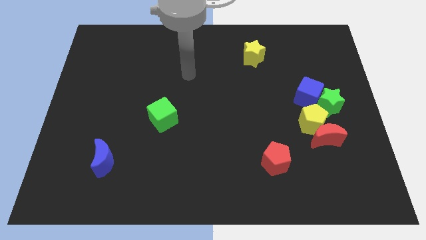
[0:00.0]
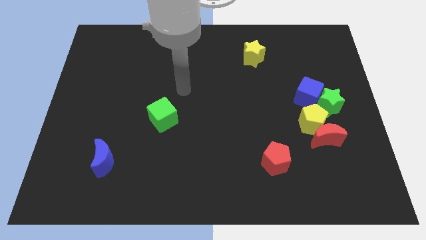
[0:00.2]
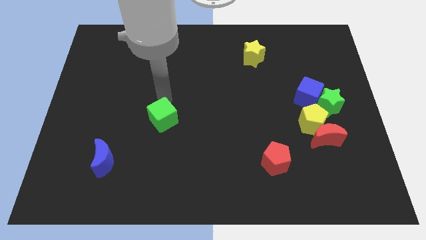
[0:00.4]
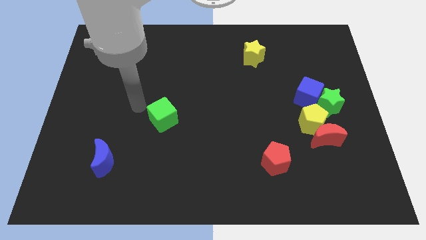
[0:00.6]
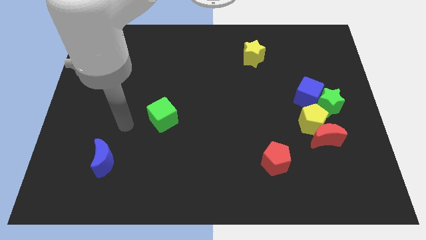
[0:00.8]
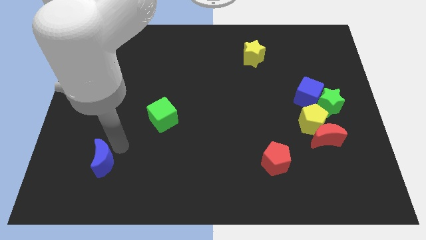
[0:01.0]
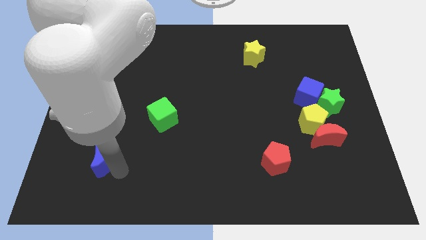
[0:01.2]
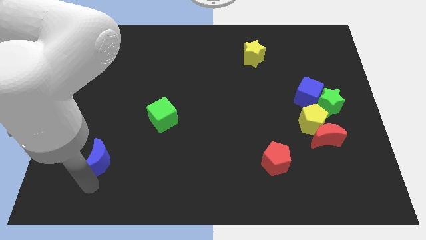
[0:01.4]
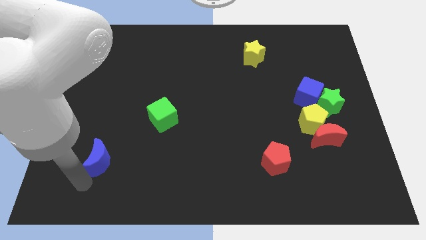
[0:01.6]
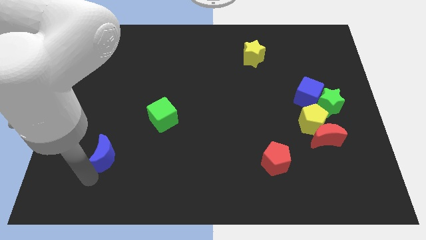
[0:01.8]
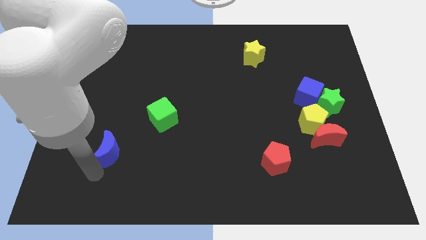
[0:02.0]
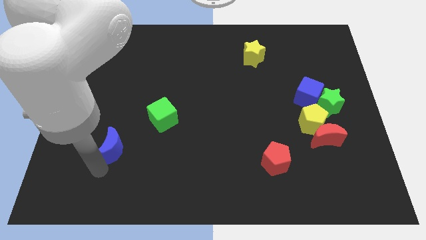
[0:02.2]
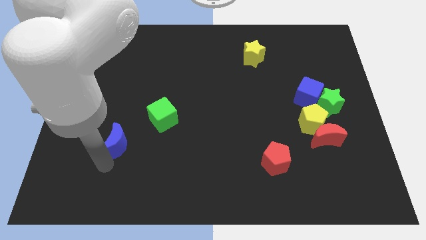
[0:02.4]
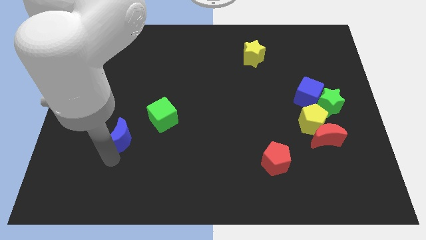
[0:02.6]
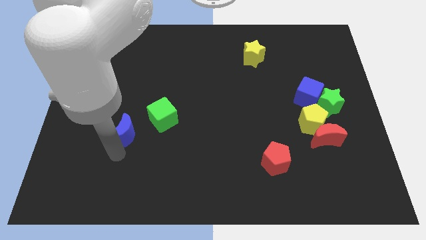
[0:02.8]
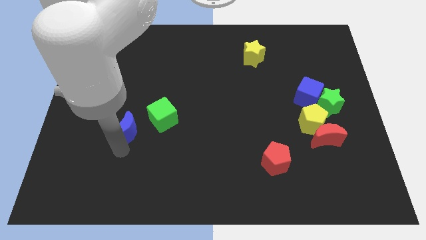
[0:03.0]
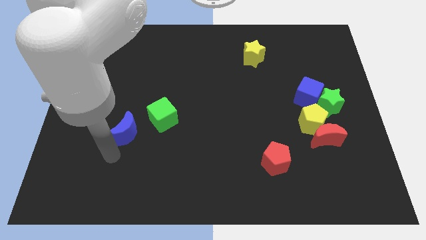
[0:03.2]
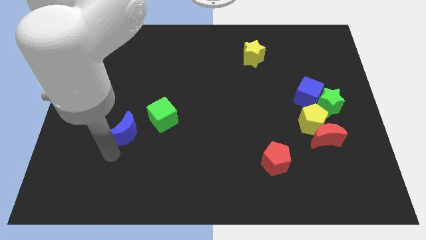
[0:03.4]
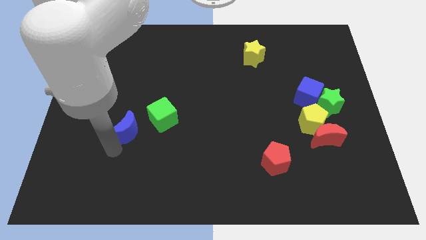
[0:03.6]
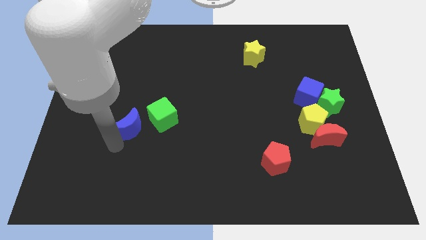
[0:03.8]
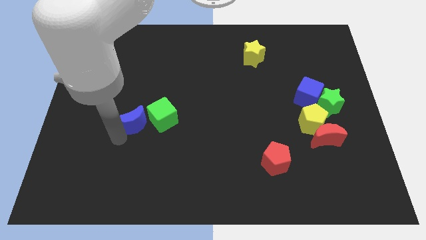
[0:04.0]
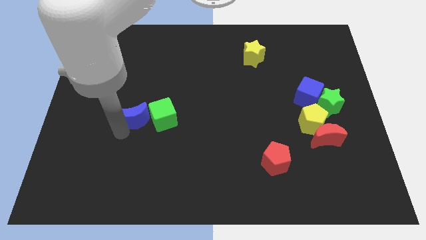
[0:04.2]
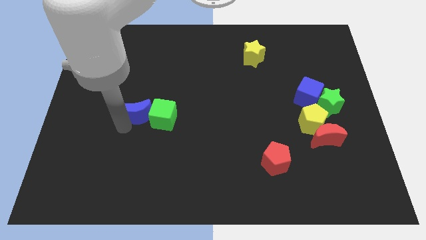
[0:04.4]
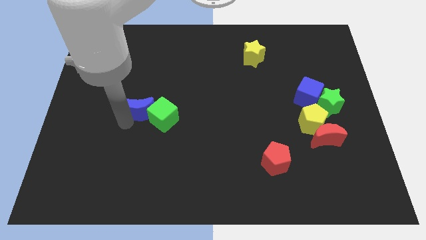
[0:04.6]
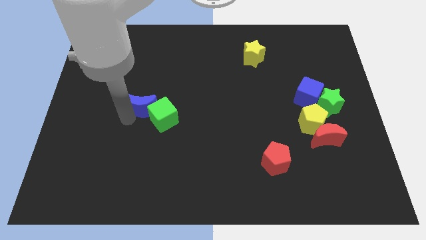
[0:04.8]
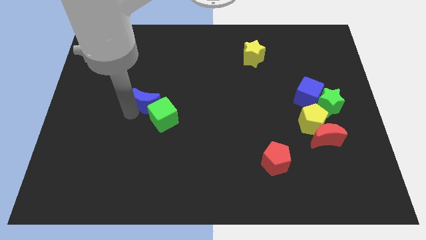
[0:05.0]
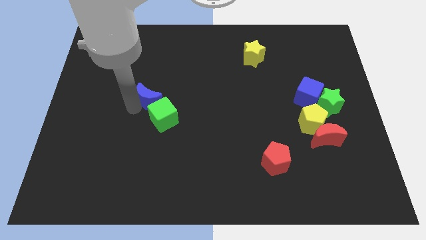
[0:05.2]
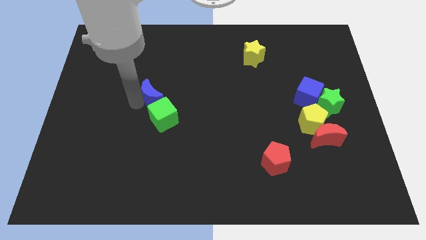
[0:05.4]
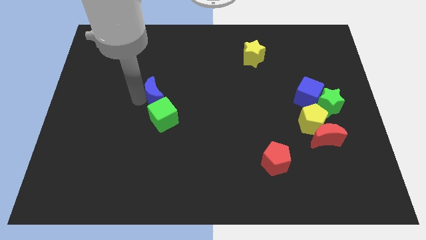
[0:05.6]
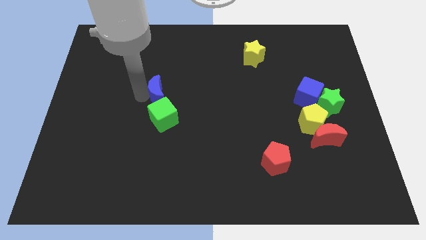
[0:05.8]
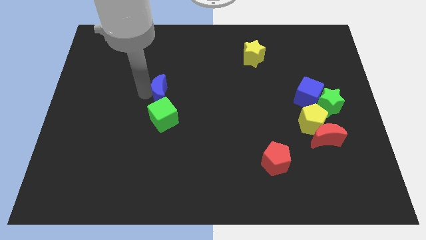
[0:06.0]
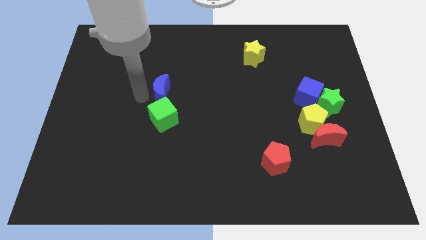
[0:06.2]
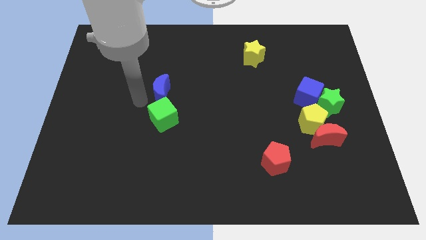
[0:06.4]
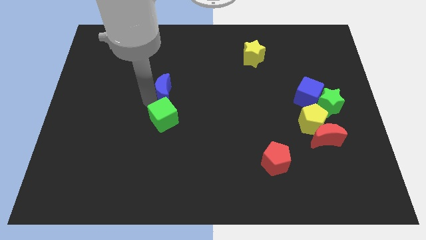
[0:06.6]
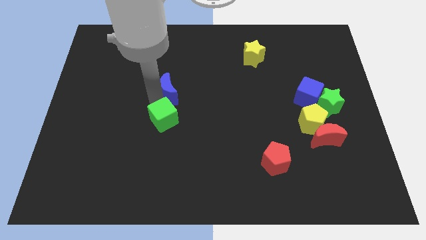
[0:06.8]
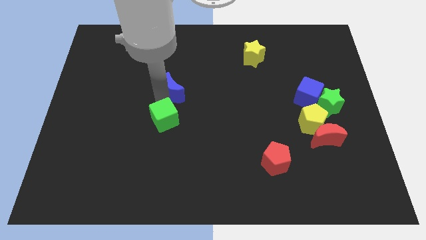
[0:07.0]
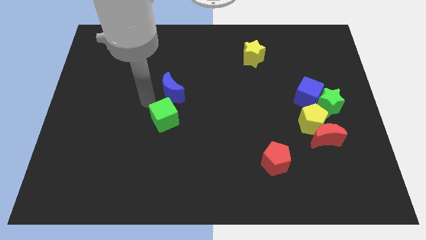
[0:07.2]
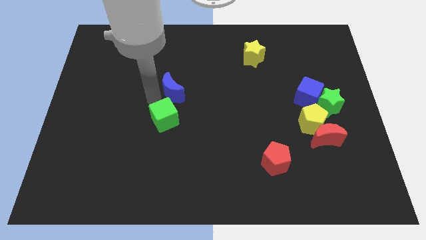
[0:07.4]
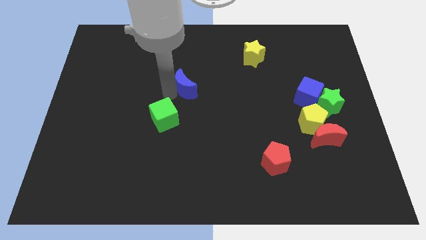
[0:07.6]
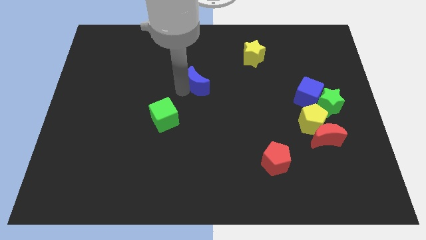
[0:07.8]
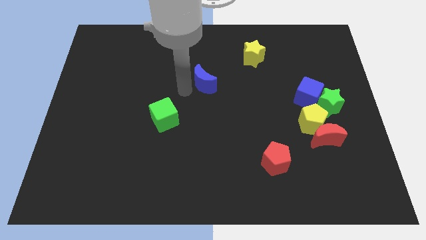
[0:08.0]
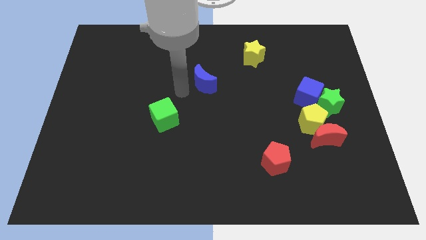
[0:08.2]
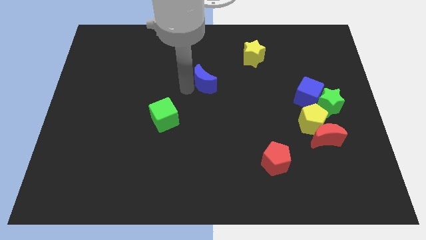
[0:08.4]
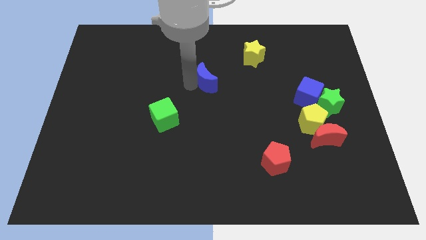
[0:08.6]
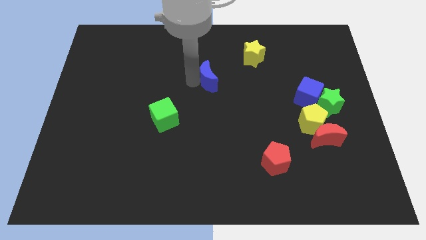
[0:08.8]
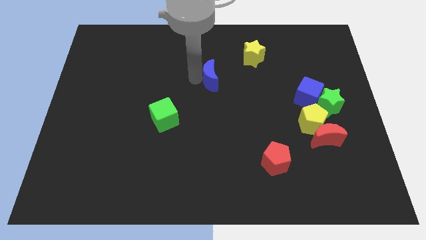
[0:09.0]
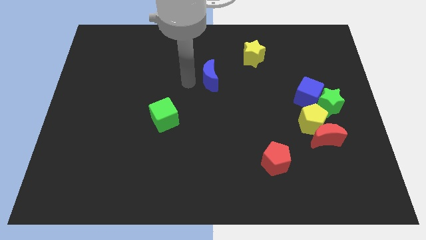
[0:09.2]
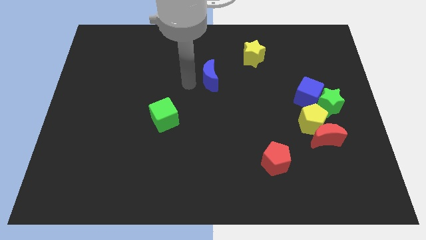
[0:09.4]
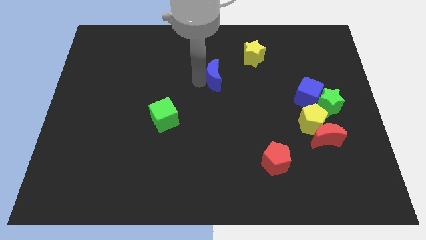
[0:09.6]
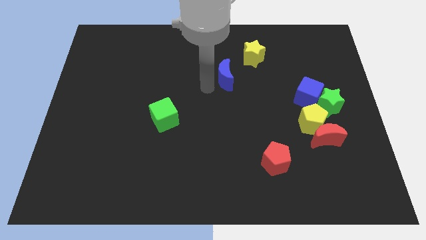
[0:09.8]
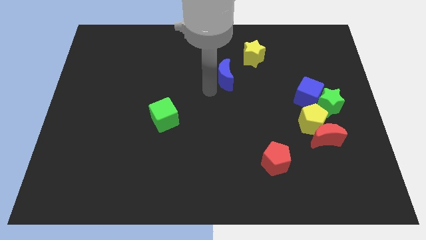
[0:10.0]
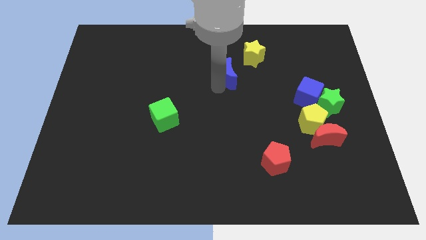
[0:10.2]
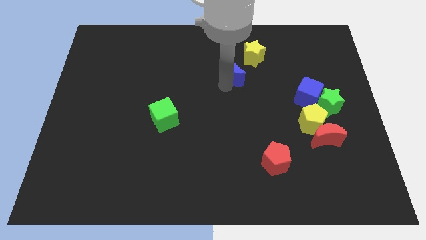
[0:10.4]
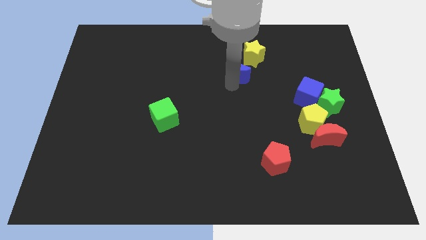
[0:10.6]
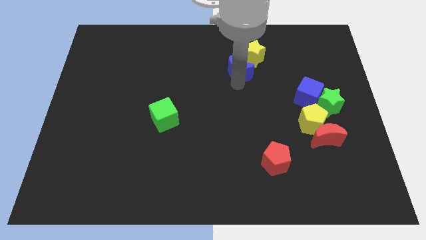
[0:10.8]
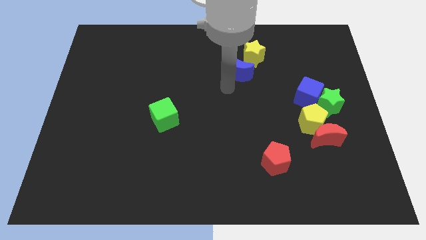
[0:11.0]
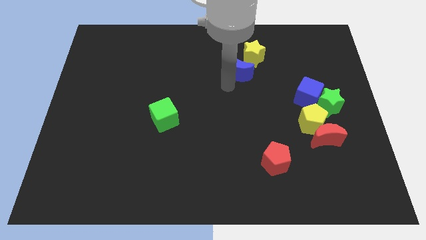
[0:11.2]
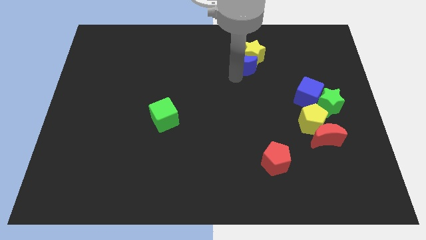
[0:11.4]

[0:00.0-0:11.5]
put the blue moon next to the yellow star

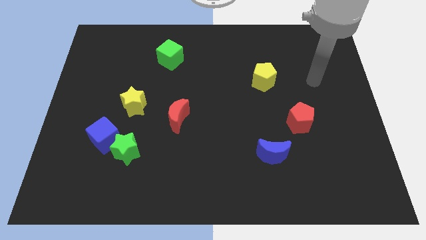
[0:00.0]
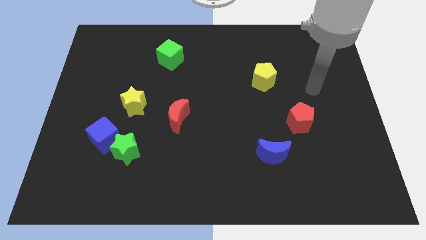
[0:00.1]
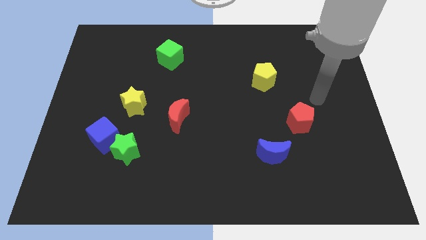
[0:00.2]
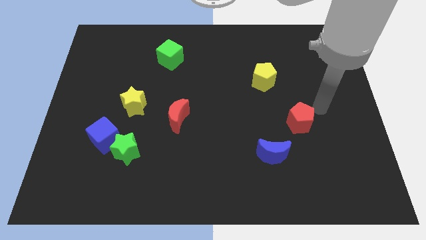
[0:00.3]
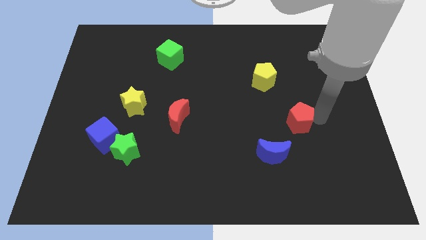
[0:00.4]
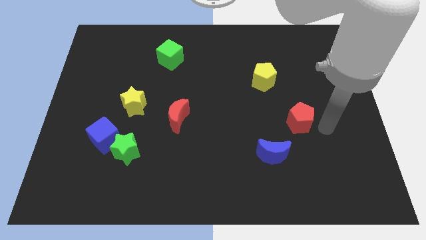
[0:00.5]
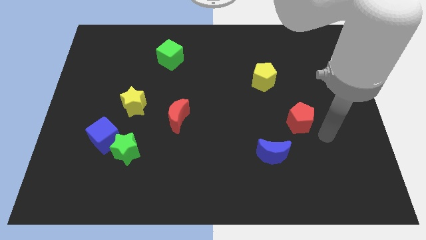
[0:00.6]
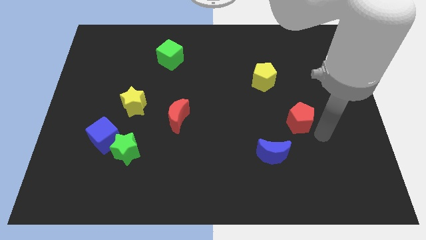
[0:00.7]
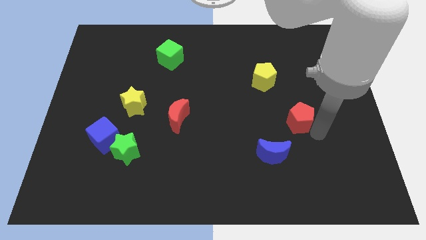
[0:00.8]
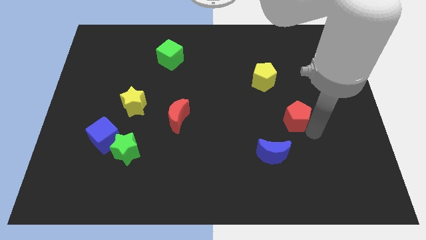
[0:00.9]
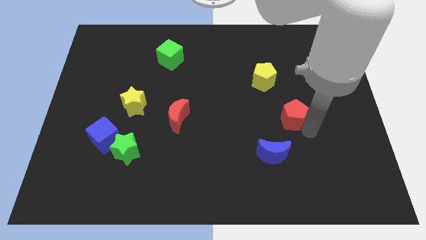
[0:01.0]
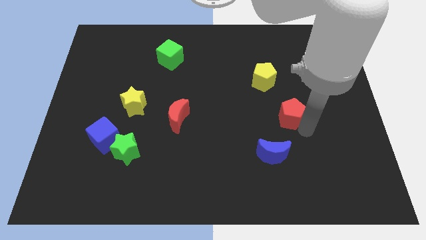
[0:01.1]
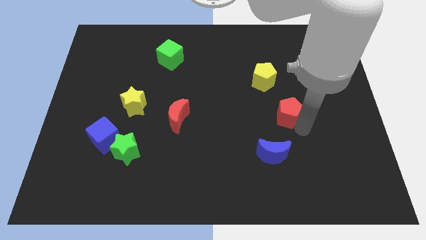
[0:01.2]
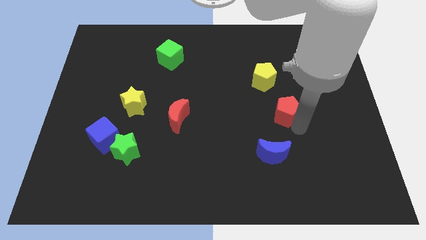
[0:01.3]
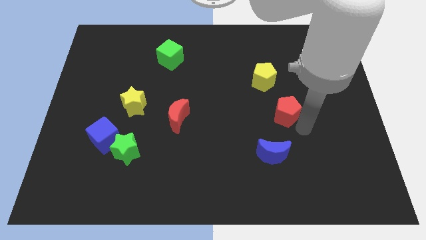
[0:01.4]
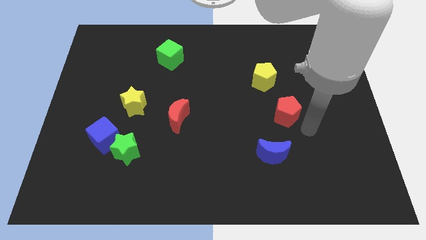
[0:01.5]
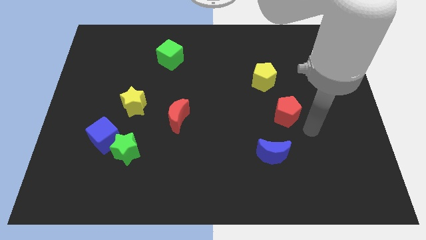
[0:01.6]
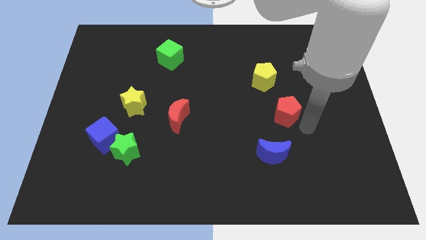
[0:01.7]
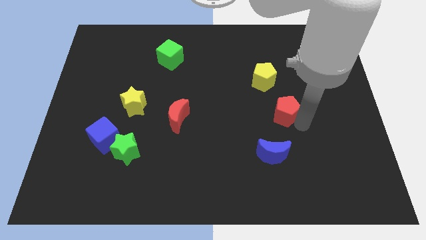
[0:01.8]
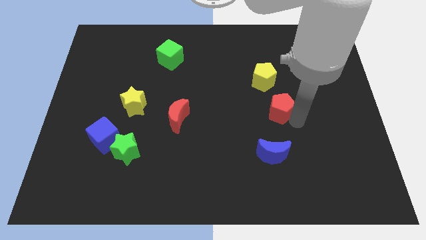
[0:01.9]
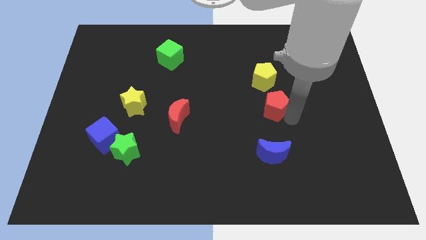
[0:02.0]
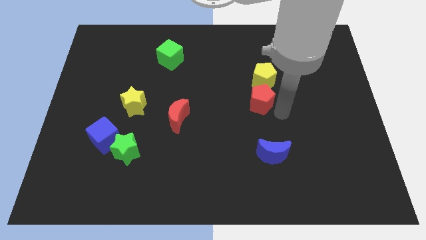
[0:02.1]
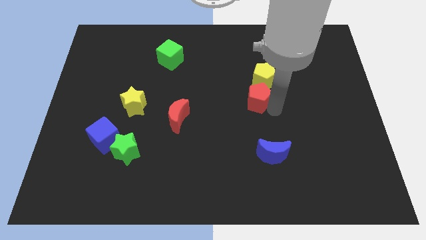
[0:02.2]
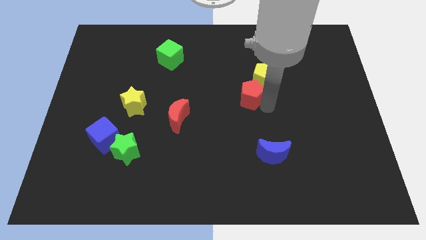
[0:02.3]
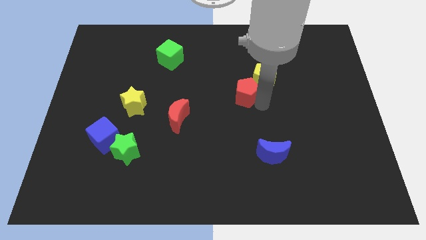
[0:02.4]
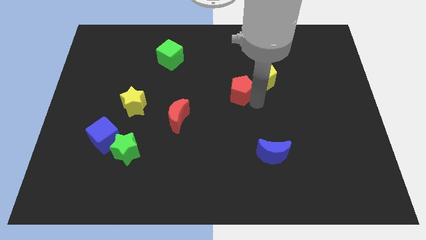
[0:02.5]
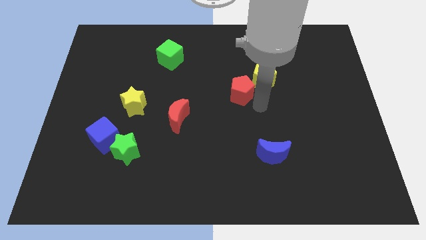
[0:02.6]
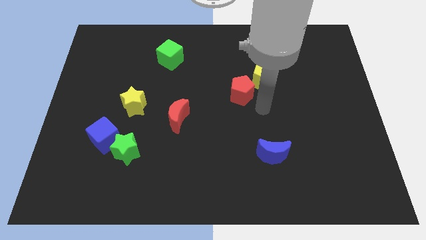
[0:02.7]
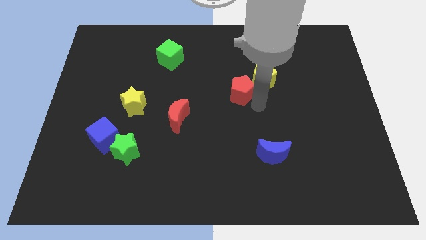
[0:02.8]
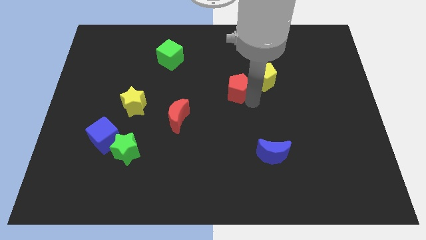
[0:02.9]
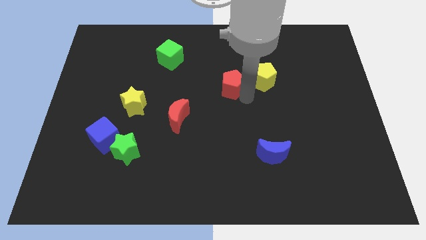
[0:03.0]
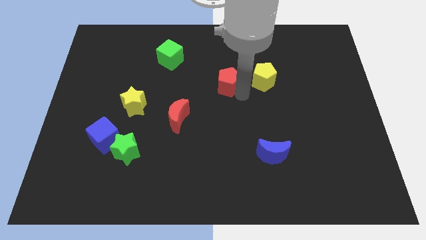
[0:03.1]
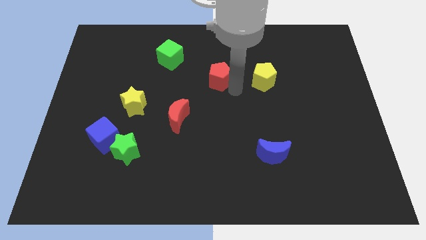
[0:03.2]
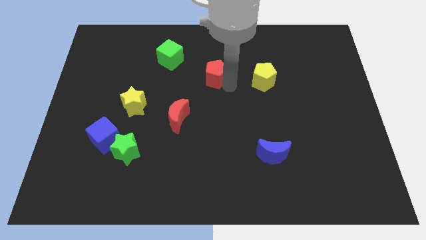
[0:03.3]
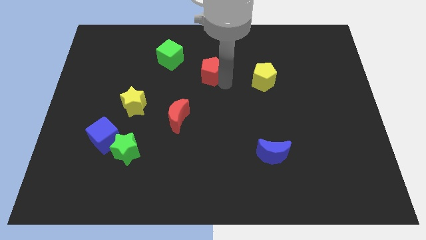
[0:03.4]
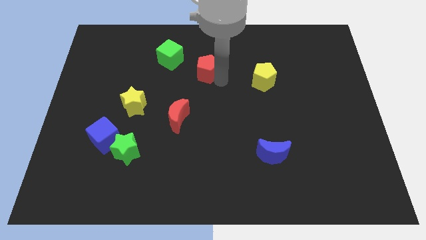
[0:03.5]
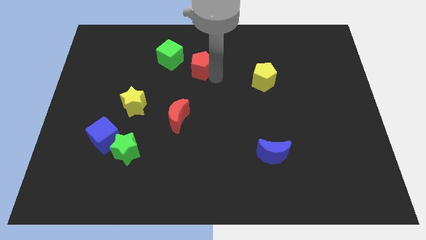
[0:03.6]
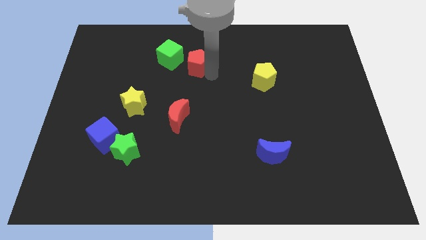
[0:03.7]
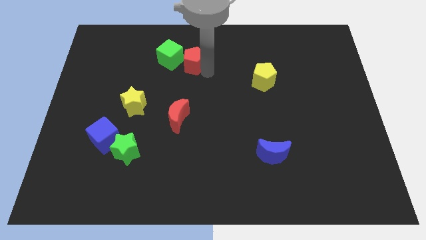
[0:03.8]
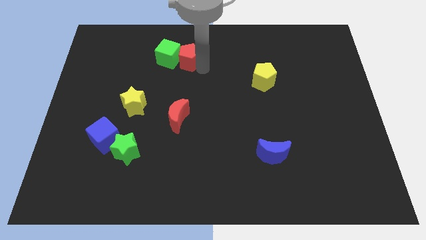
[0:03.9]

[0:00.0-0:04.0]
put the red pentagon next to the green cube
